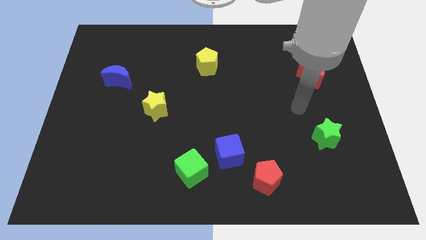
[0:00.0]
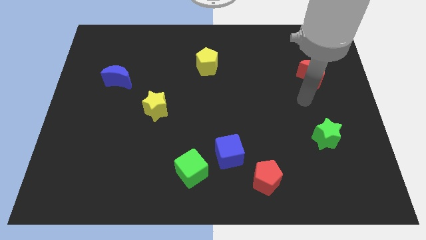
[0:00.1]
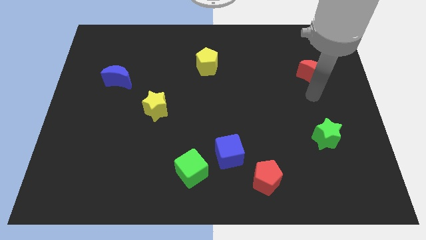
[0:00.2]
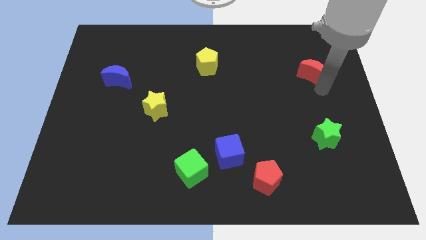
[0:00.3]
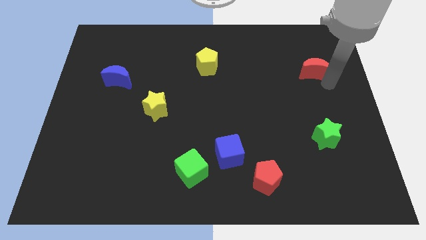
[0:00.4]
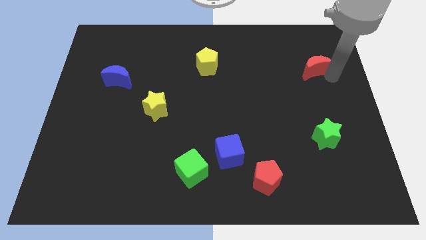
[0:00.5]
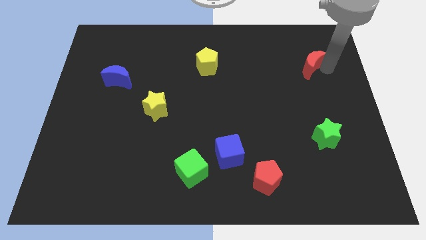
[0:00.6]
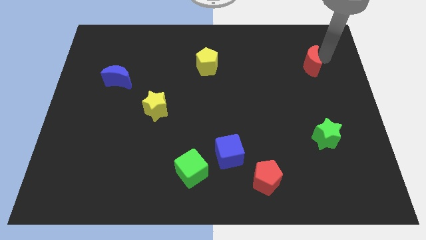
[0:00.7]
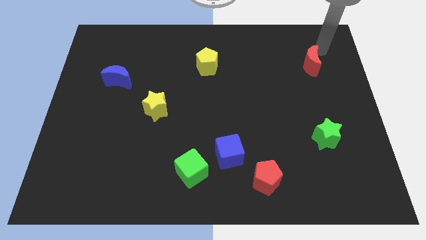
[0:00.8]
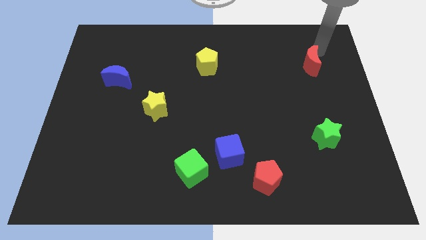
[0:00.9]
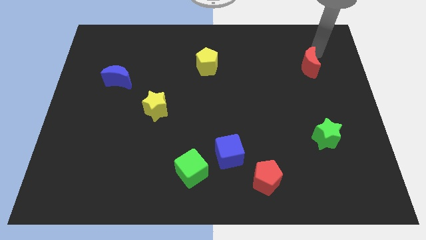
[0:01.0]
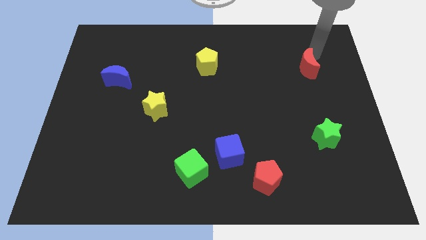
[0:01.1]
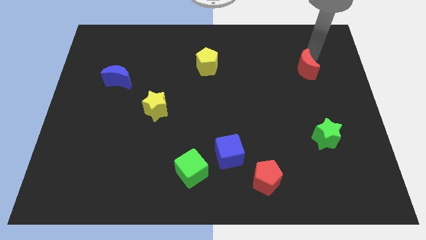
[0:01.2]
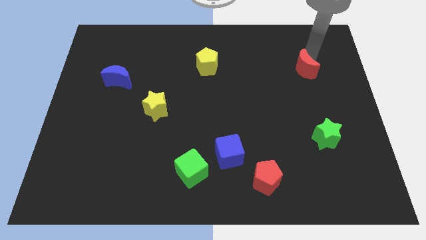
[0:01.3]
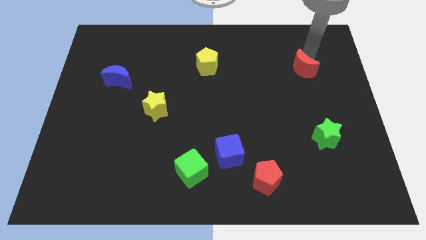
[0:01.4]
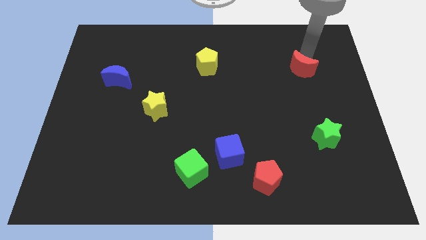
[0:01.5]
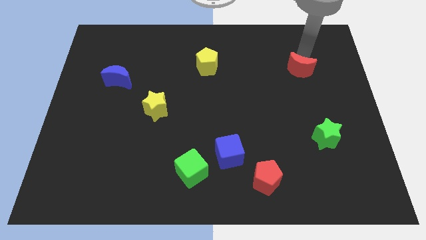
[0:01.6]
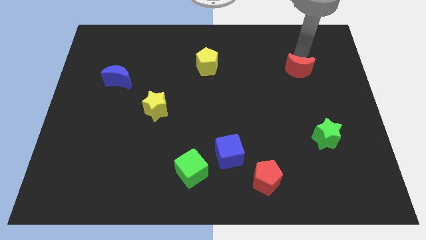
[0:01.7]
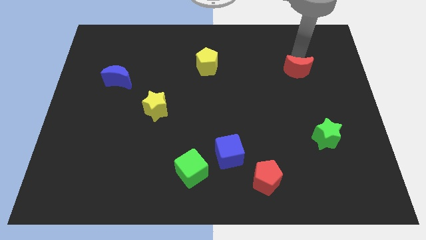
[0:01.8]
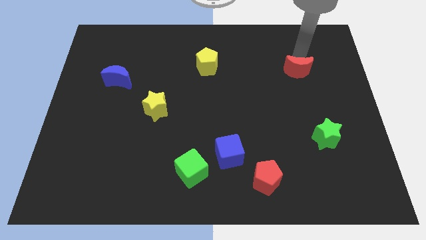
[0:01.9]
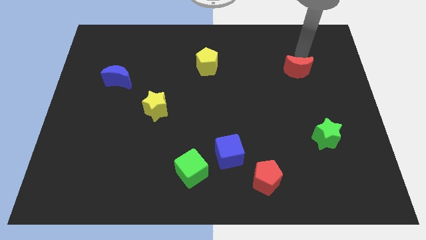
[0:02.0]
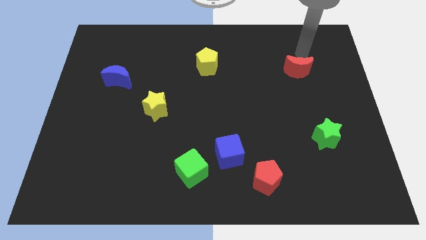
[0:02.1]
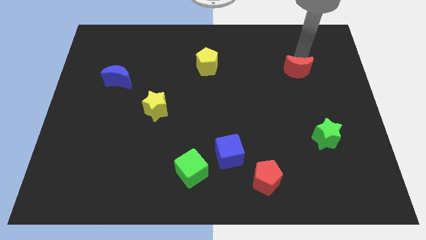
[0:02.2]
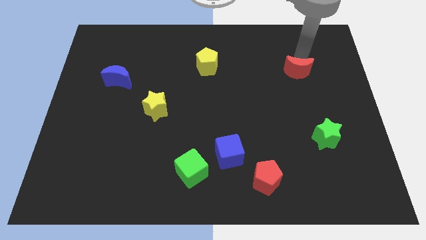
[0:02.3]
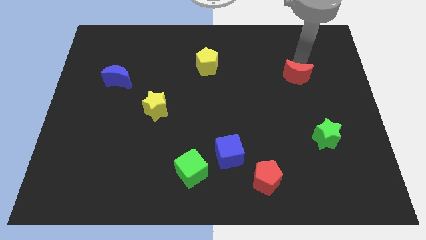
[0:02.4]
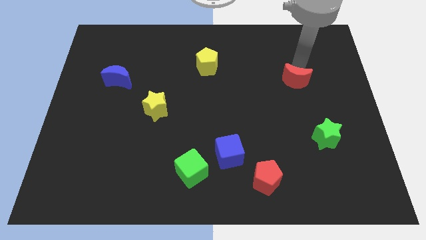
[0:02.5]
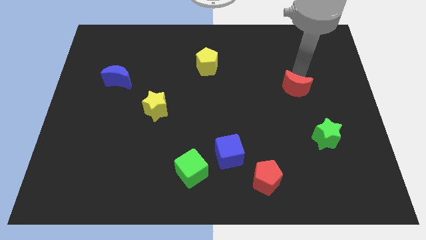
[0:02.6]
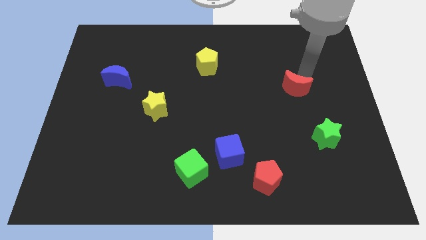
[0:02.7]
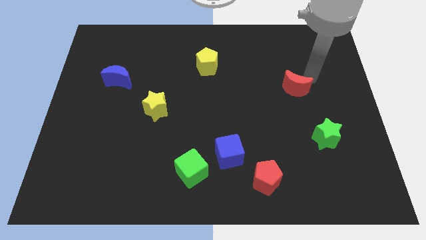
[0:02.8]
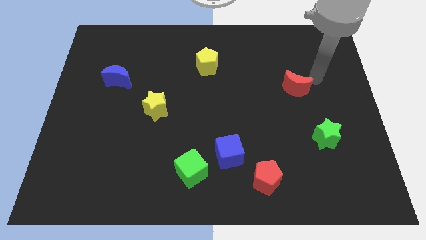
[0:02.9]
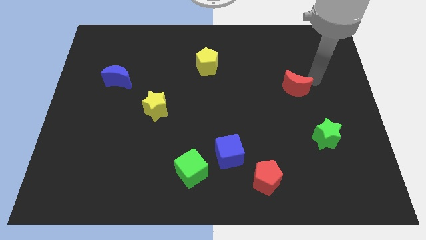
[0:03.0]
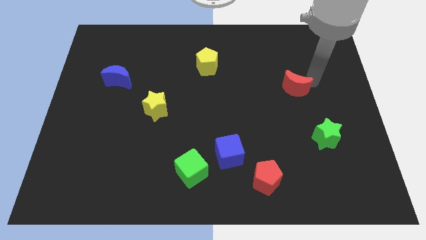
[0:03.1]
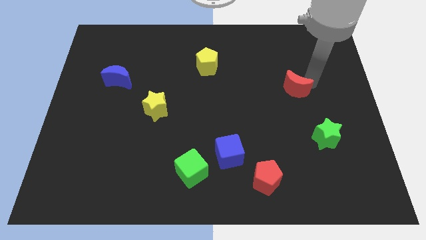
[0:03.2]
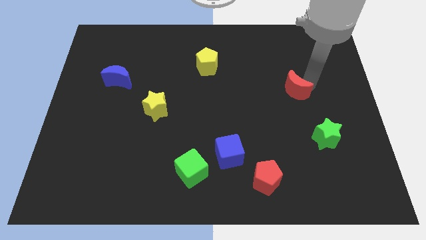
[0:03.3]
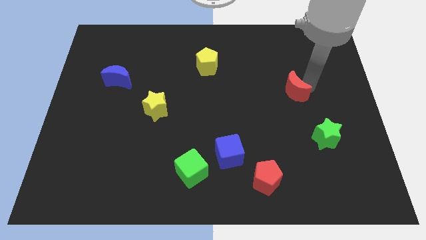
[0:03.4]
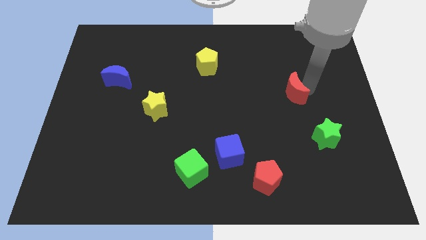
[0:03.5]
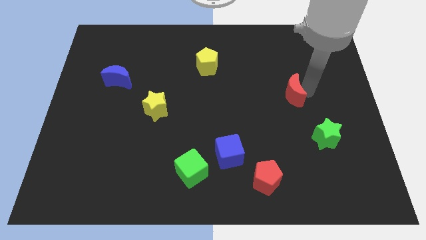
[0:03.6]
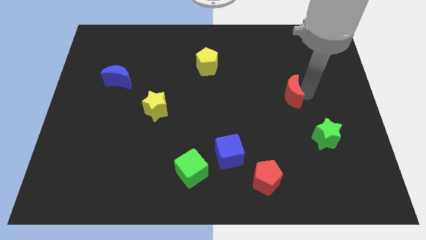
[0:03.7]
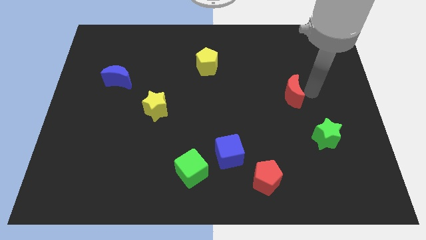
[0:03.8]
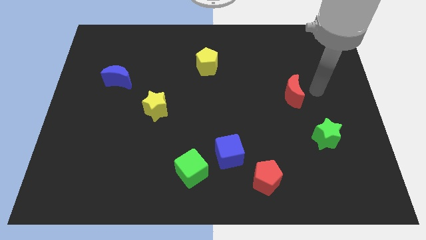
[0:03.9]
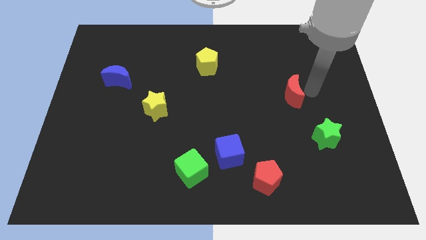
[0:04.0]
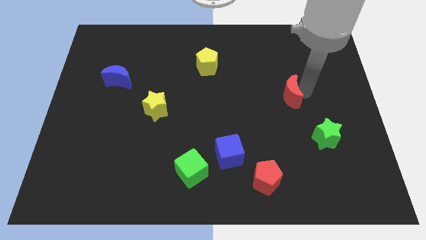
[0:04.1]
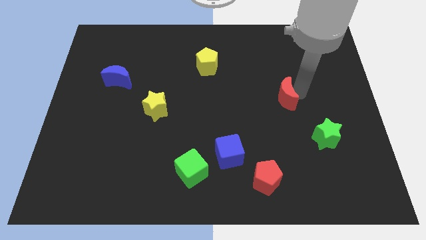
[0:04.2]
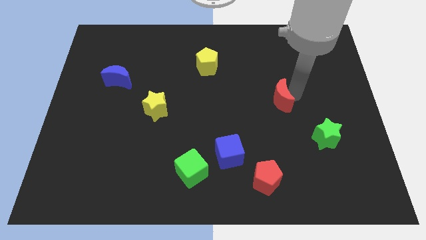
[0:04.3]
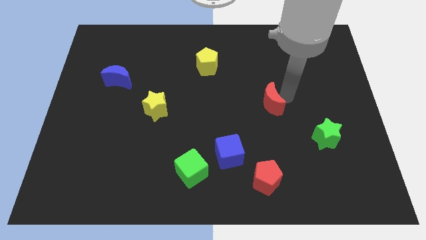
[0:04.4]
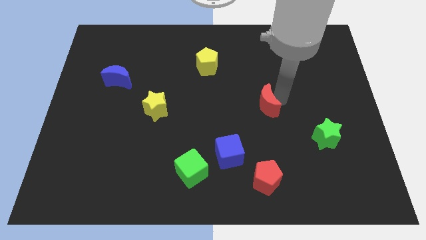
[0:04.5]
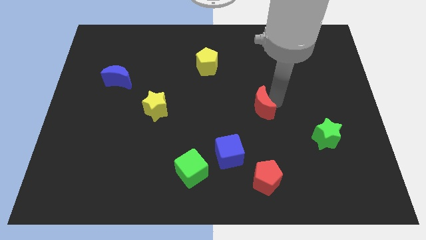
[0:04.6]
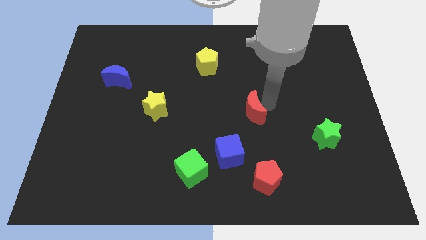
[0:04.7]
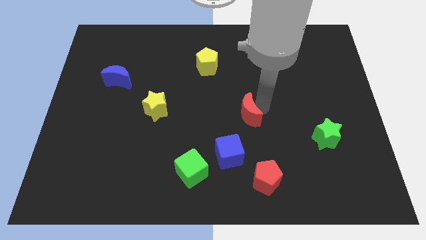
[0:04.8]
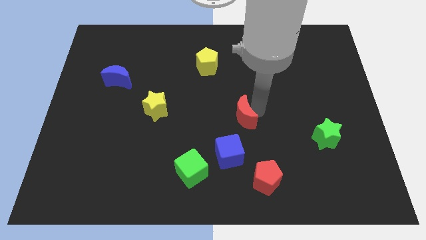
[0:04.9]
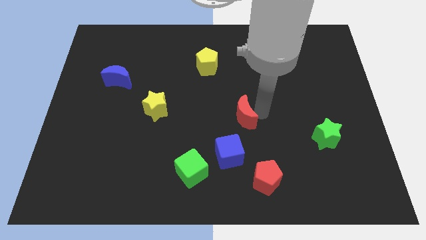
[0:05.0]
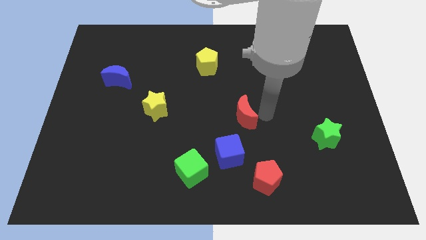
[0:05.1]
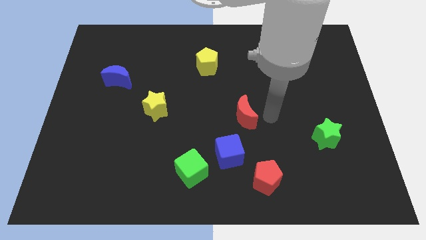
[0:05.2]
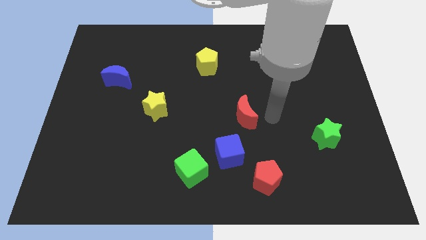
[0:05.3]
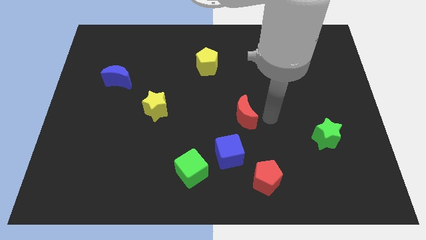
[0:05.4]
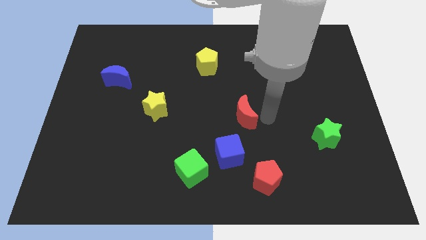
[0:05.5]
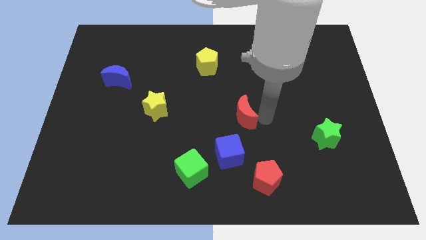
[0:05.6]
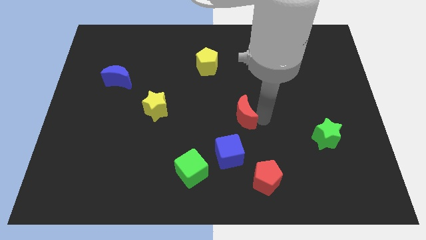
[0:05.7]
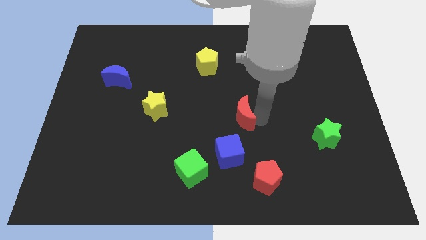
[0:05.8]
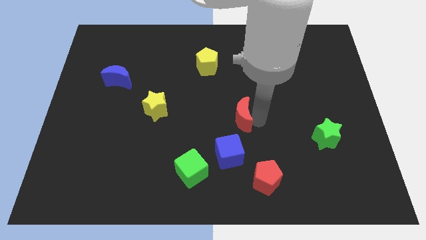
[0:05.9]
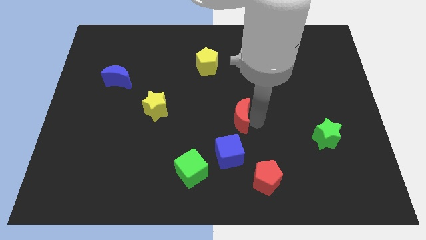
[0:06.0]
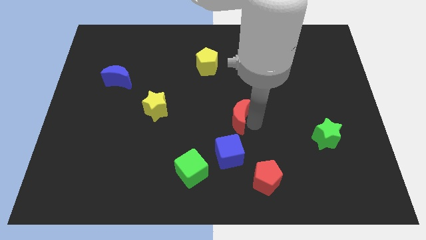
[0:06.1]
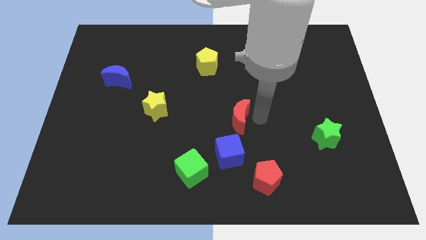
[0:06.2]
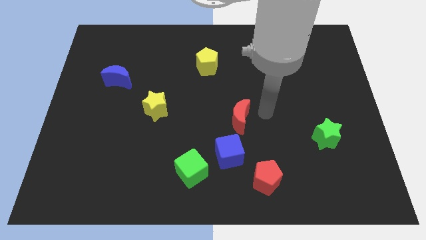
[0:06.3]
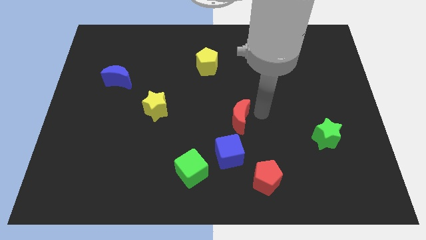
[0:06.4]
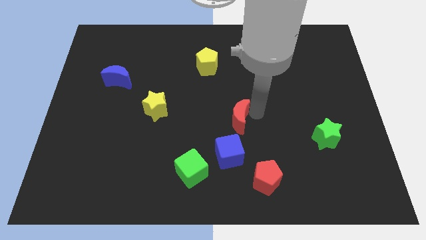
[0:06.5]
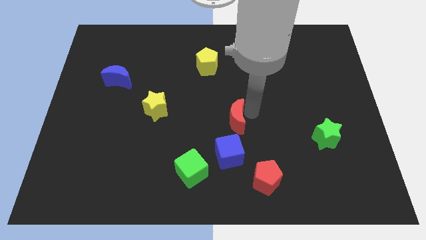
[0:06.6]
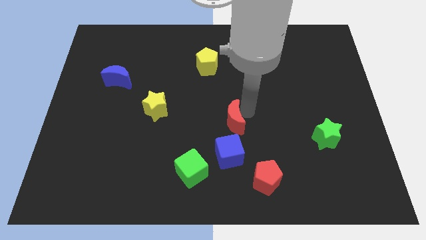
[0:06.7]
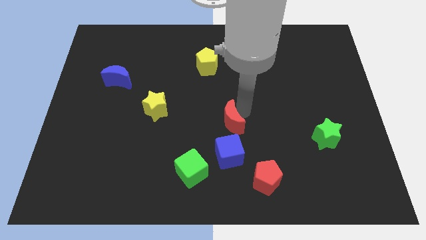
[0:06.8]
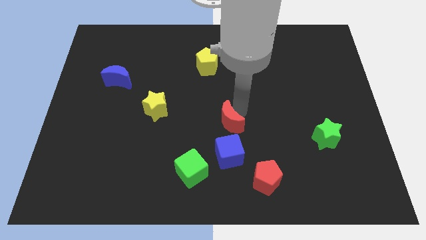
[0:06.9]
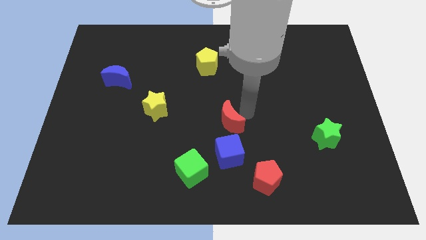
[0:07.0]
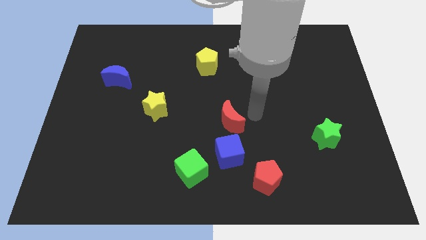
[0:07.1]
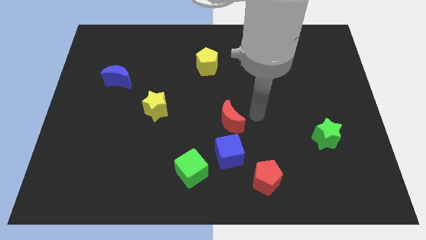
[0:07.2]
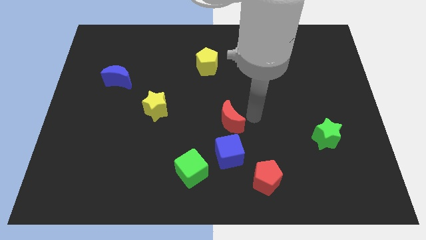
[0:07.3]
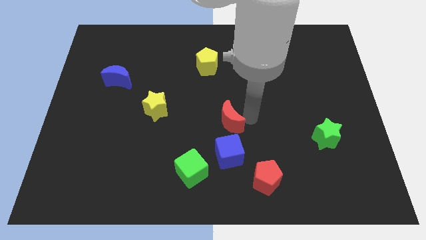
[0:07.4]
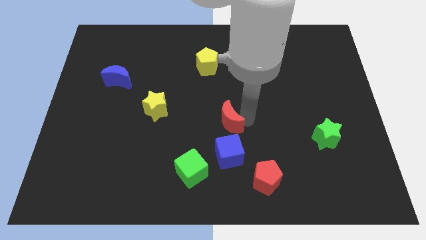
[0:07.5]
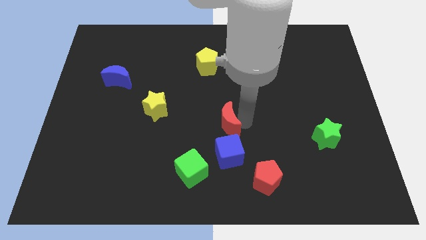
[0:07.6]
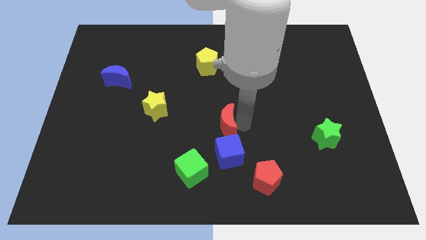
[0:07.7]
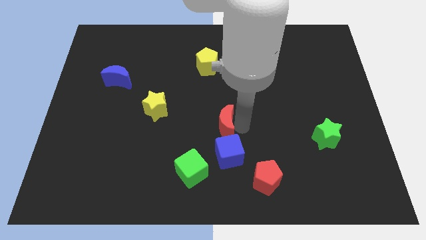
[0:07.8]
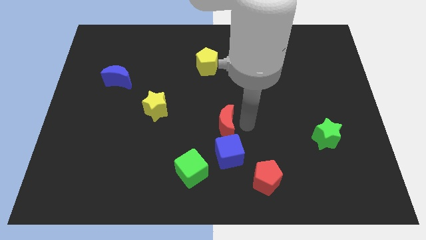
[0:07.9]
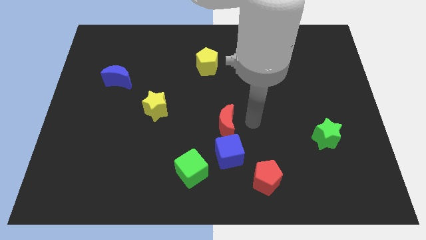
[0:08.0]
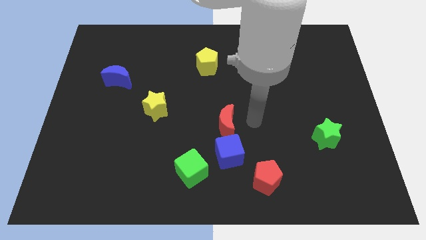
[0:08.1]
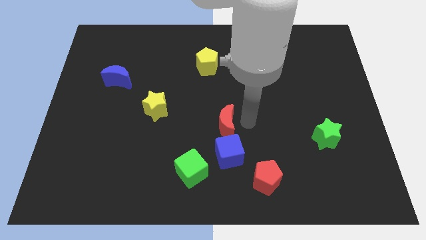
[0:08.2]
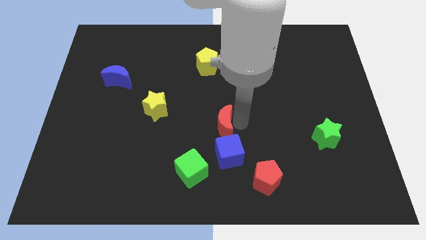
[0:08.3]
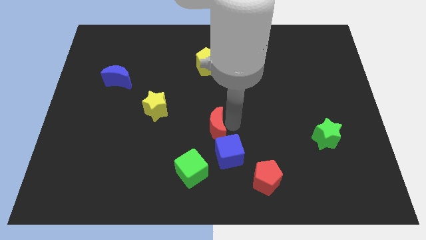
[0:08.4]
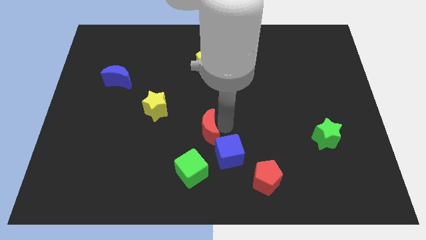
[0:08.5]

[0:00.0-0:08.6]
put the red moon to the top of the green cube
